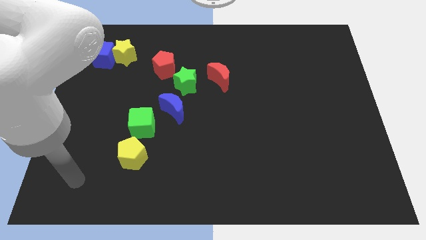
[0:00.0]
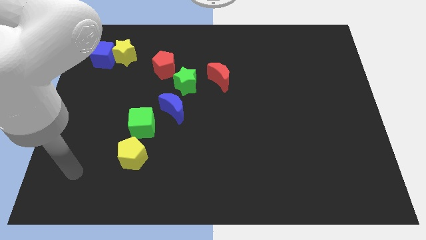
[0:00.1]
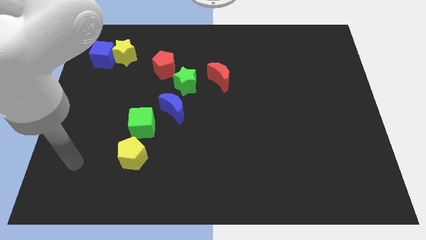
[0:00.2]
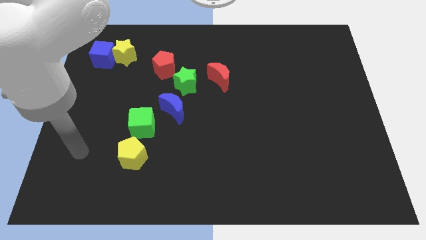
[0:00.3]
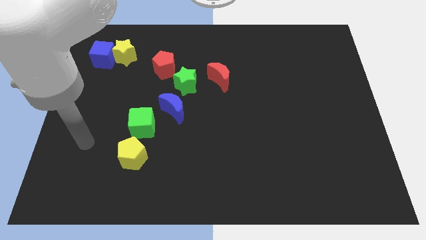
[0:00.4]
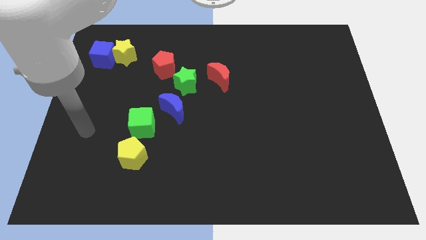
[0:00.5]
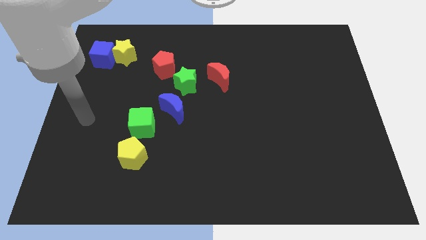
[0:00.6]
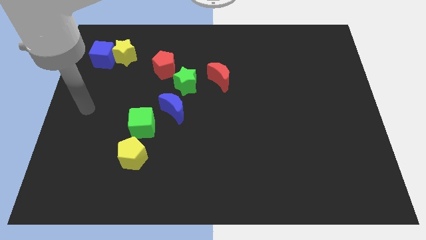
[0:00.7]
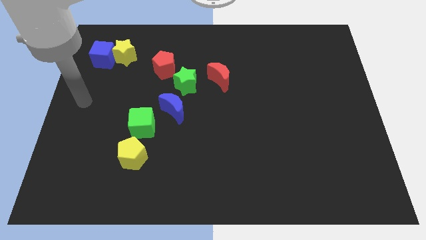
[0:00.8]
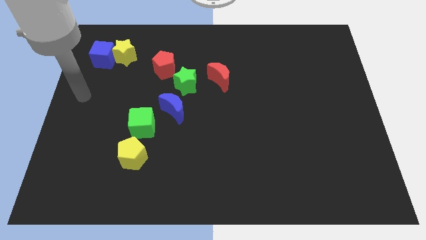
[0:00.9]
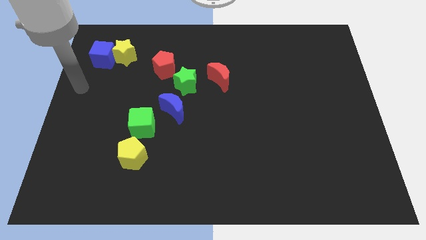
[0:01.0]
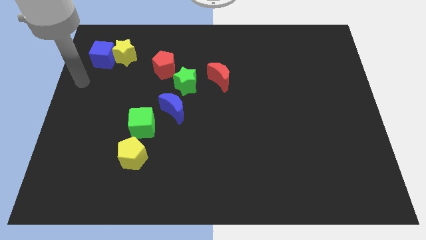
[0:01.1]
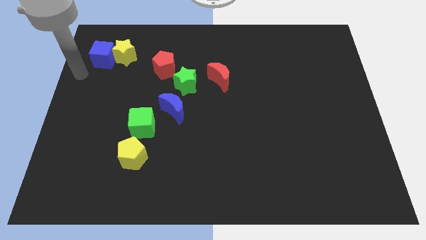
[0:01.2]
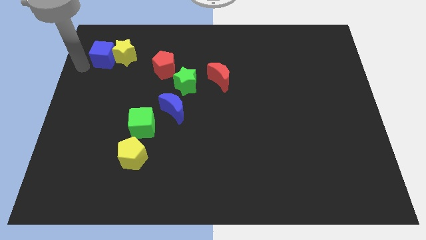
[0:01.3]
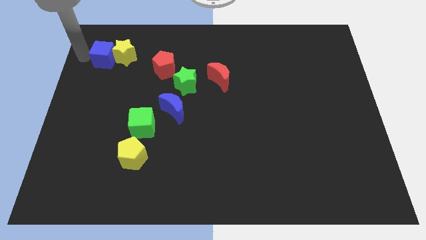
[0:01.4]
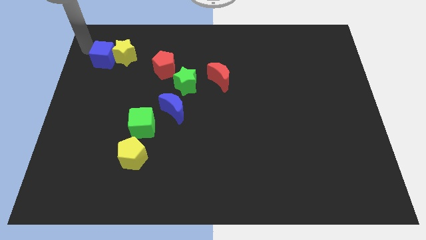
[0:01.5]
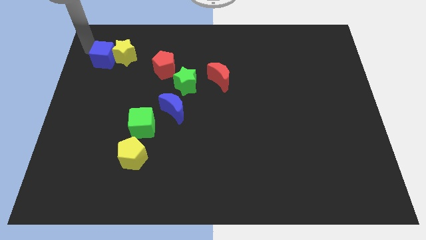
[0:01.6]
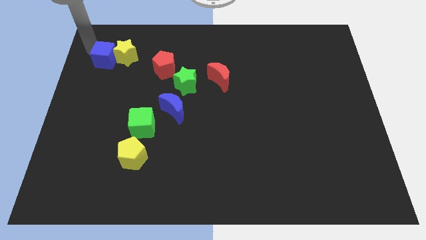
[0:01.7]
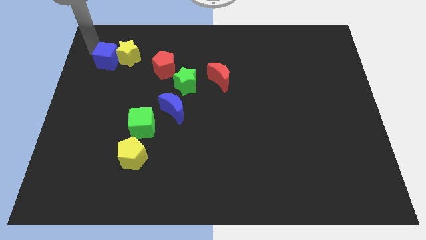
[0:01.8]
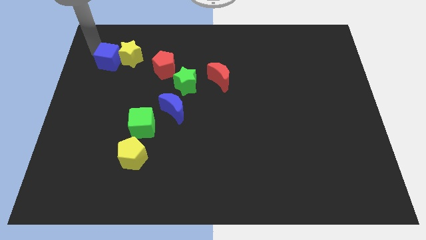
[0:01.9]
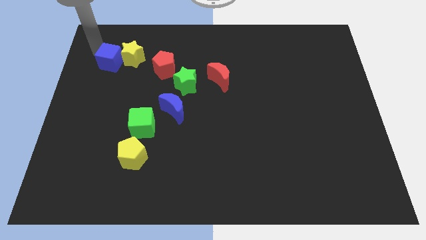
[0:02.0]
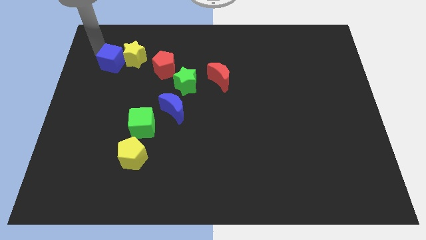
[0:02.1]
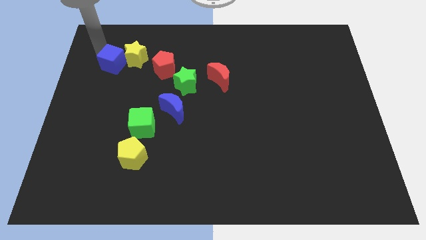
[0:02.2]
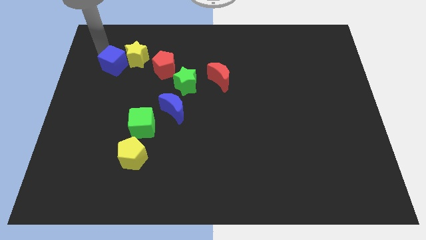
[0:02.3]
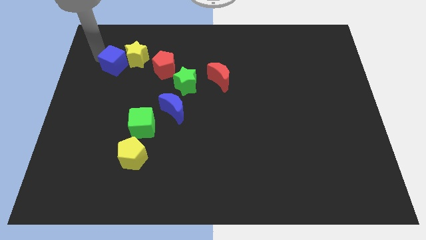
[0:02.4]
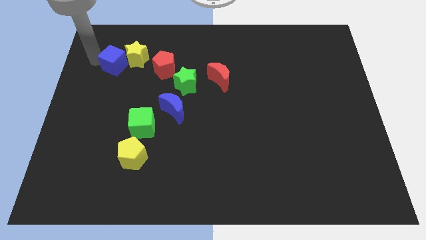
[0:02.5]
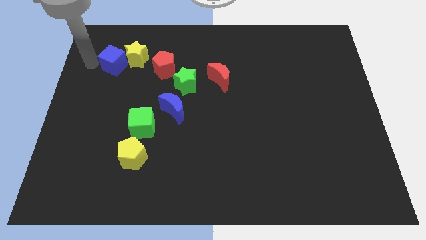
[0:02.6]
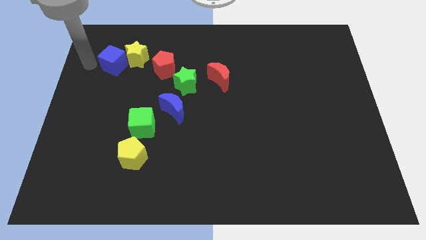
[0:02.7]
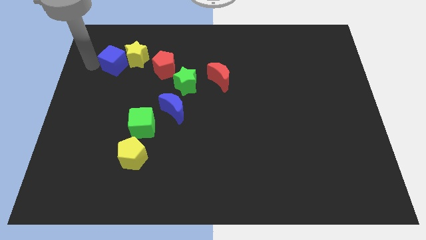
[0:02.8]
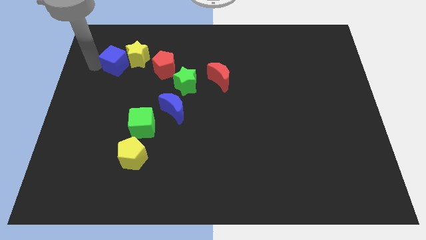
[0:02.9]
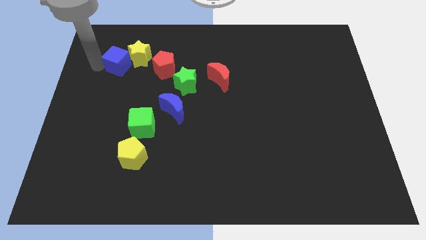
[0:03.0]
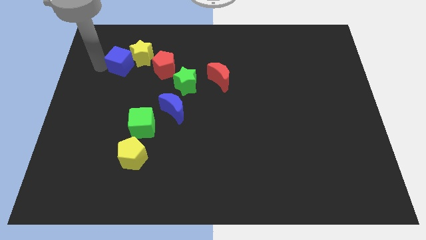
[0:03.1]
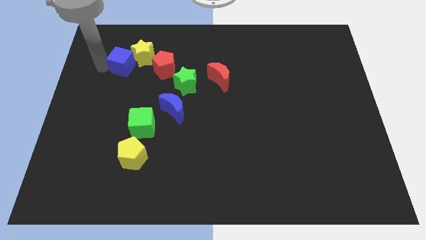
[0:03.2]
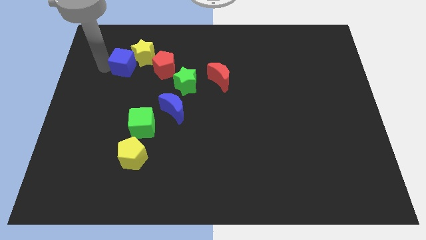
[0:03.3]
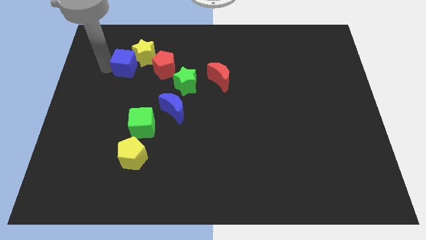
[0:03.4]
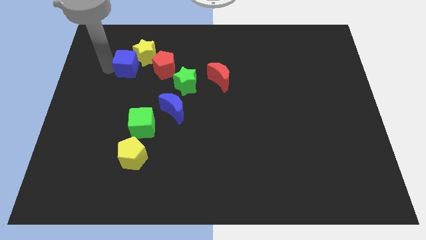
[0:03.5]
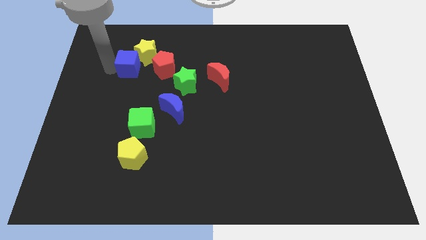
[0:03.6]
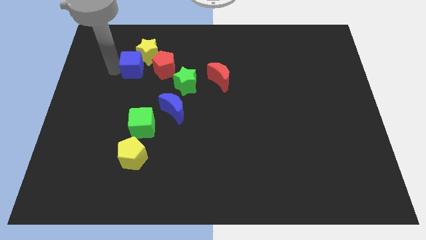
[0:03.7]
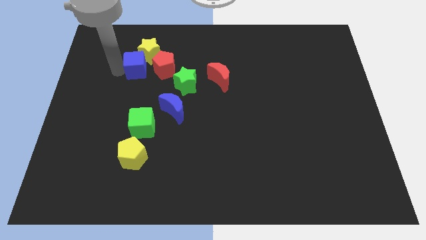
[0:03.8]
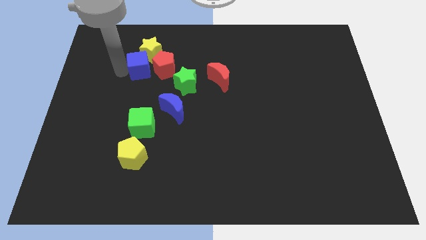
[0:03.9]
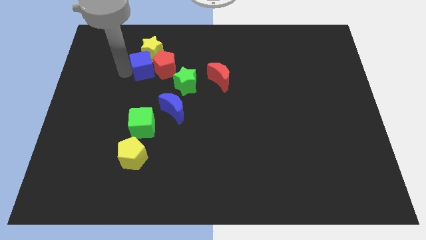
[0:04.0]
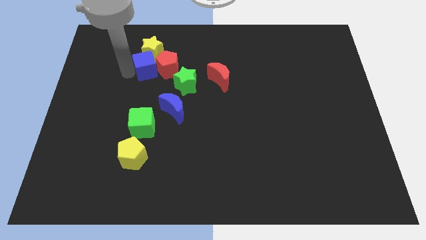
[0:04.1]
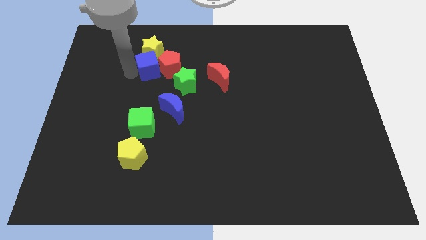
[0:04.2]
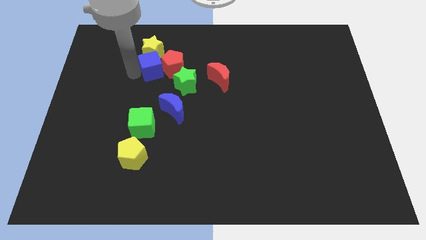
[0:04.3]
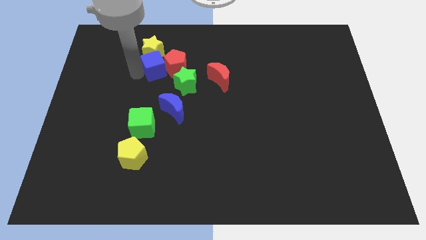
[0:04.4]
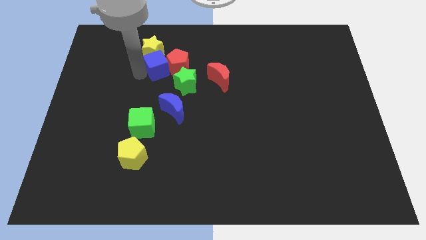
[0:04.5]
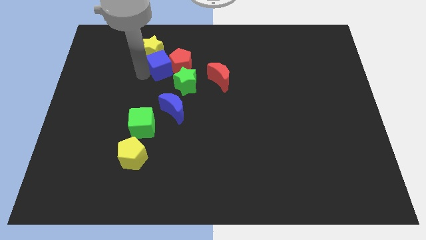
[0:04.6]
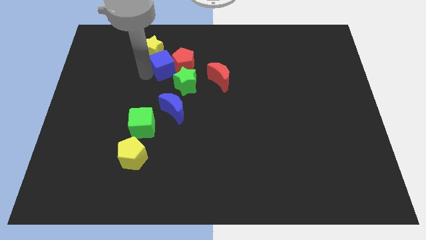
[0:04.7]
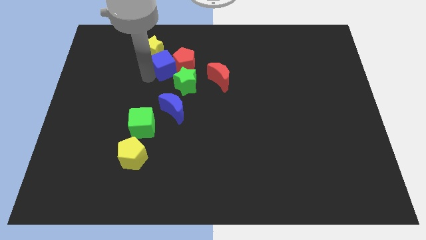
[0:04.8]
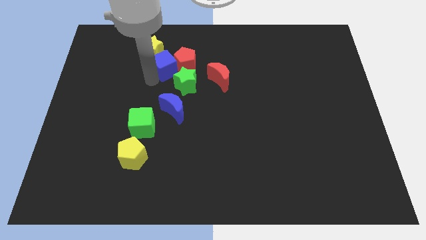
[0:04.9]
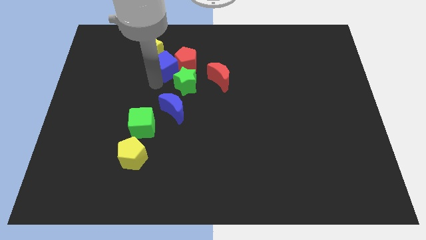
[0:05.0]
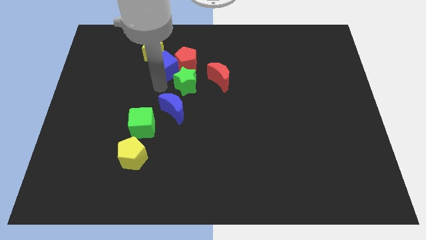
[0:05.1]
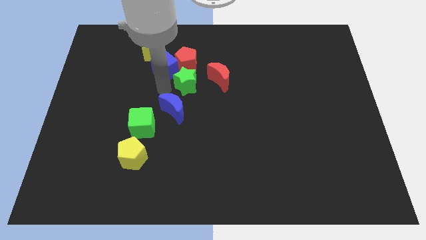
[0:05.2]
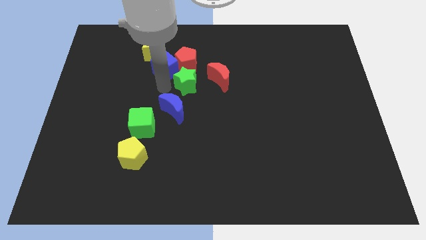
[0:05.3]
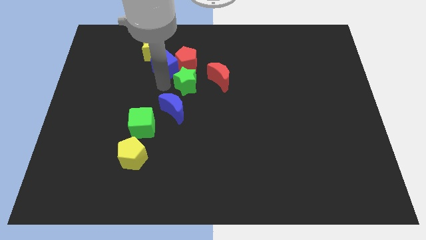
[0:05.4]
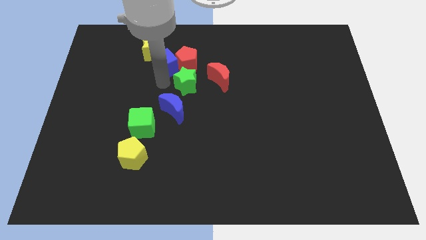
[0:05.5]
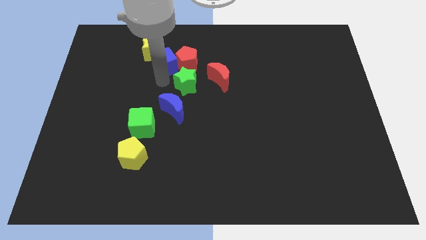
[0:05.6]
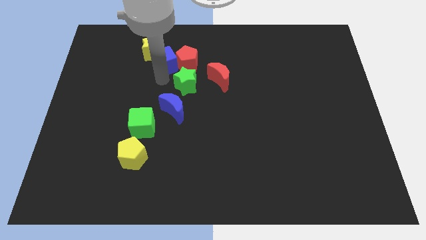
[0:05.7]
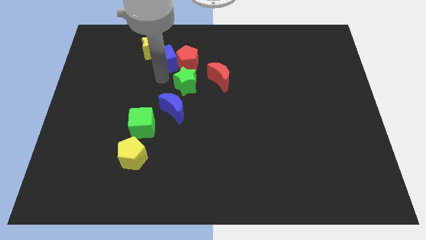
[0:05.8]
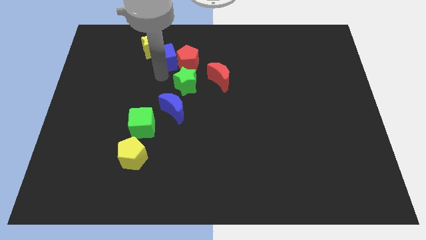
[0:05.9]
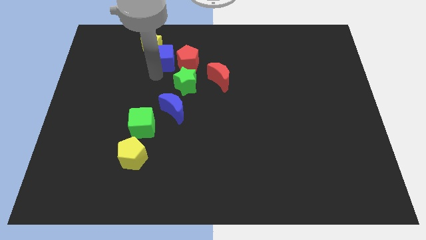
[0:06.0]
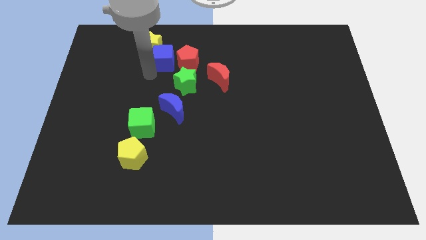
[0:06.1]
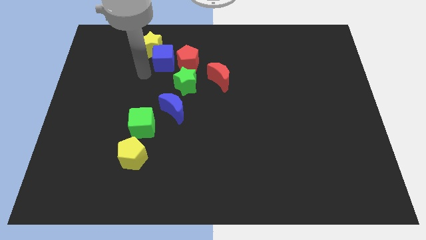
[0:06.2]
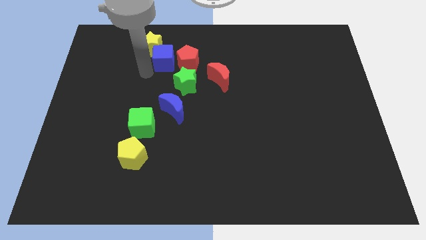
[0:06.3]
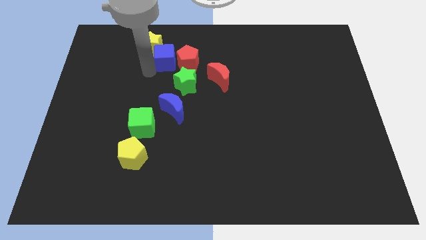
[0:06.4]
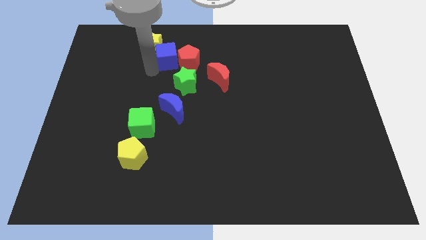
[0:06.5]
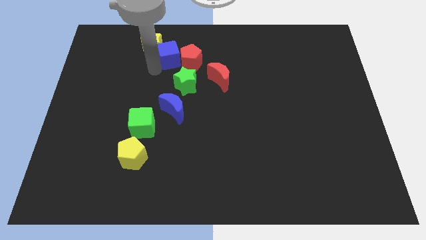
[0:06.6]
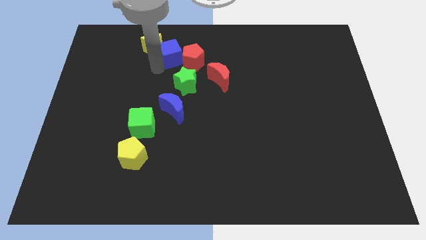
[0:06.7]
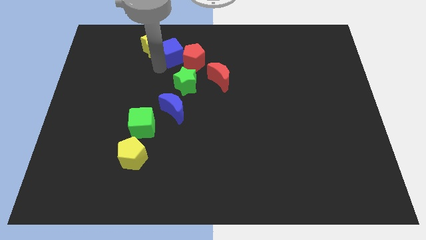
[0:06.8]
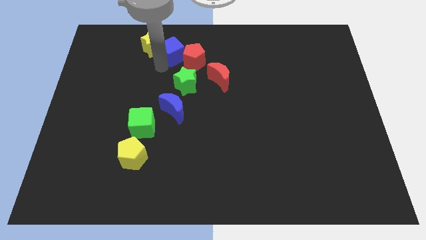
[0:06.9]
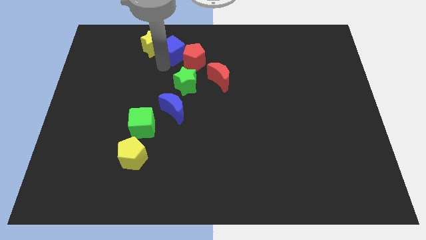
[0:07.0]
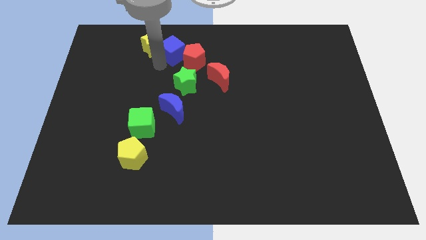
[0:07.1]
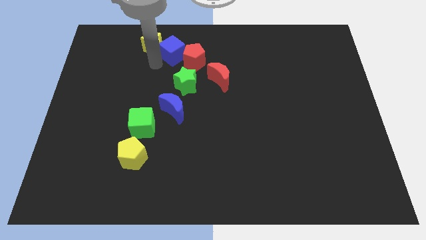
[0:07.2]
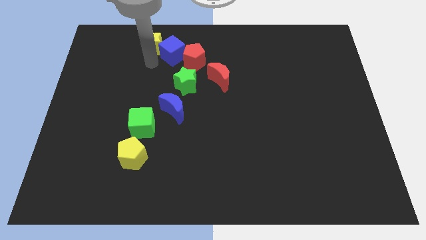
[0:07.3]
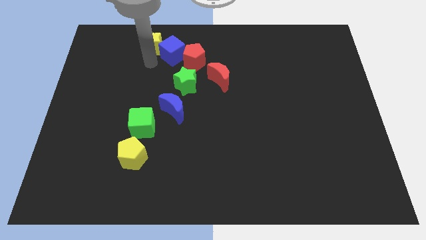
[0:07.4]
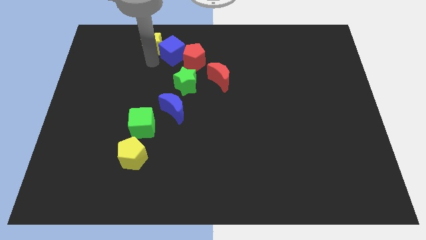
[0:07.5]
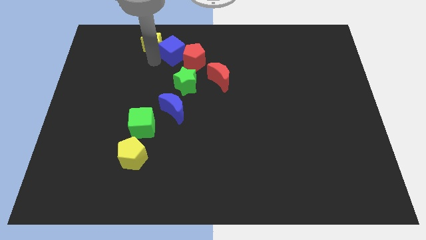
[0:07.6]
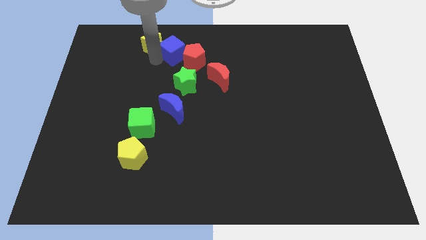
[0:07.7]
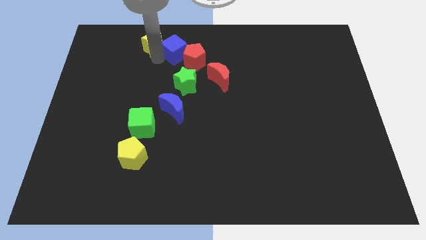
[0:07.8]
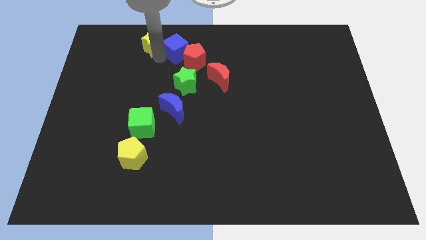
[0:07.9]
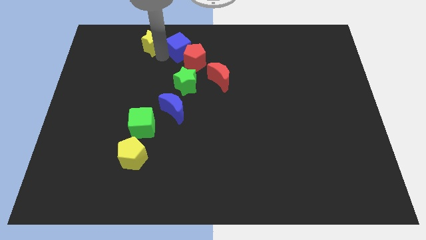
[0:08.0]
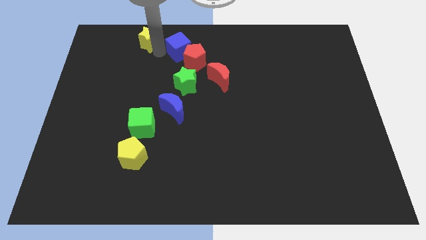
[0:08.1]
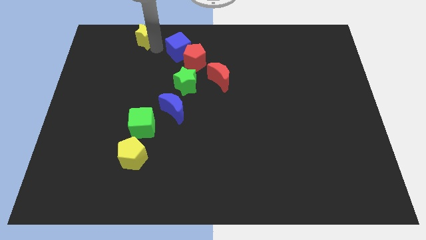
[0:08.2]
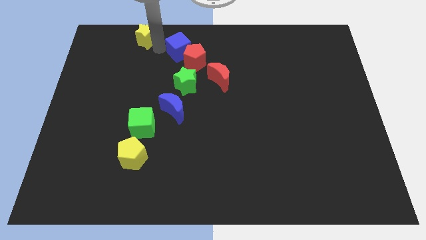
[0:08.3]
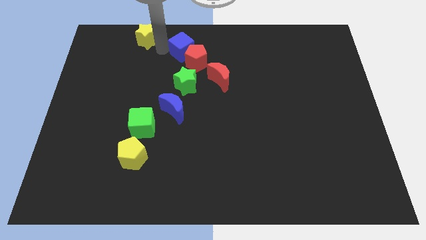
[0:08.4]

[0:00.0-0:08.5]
move the blue cube to the right
